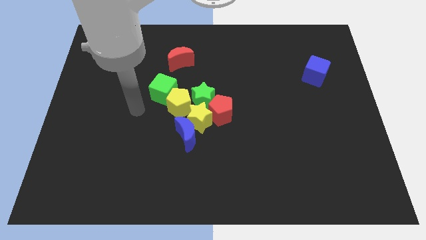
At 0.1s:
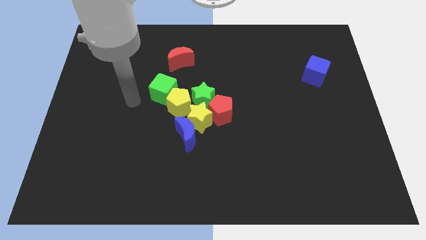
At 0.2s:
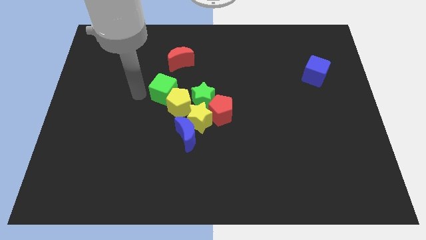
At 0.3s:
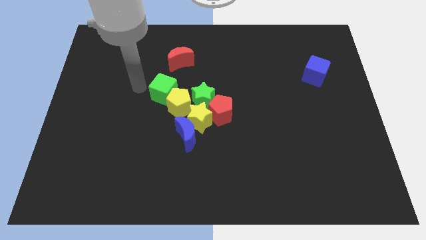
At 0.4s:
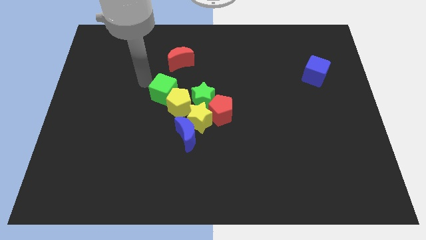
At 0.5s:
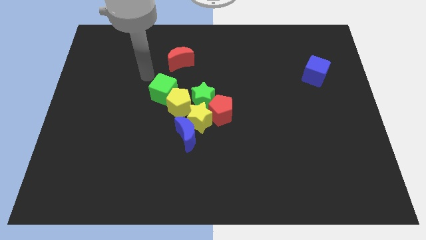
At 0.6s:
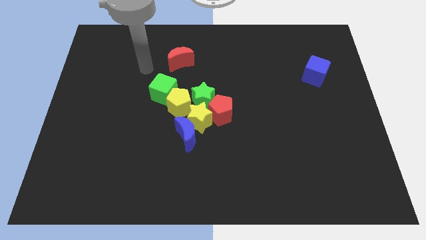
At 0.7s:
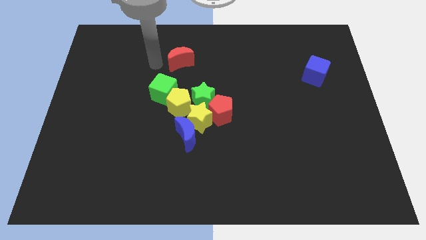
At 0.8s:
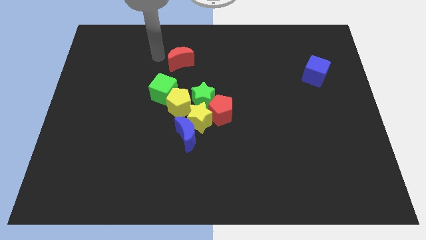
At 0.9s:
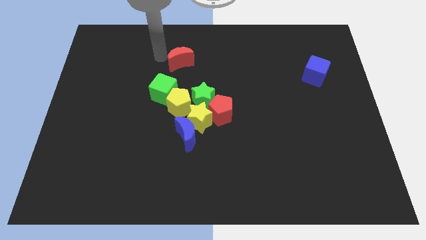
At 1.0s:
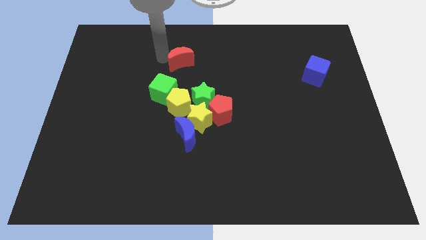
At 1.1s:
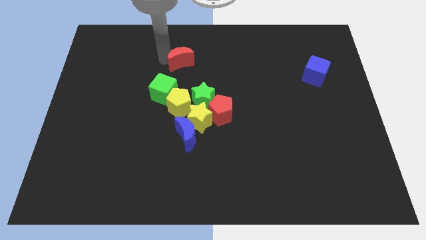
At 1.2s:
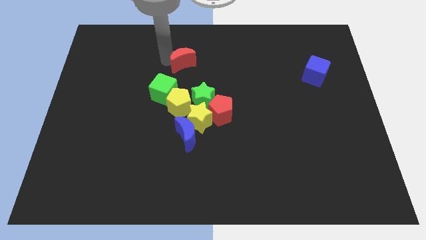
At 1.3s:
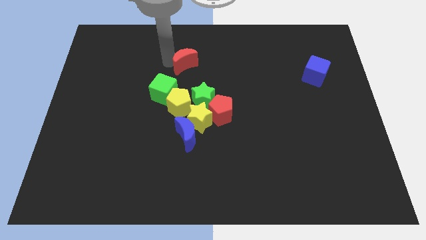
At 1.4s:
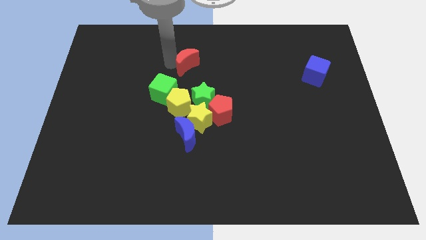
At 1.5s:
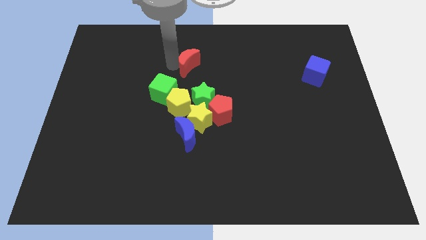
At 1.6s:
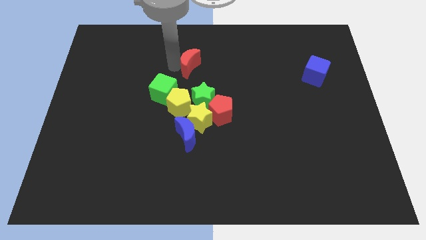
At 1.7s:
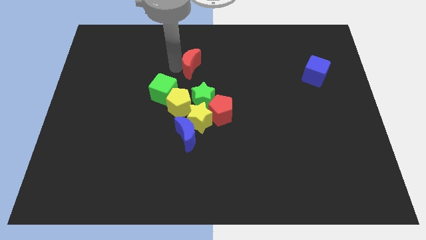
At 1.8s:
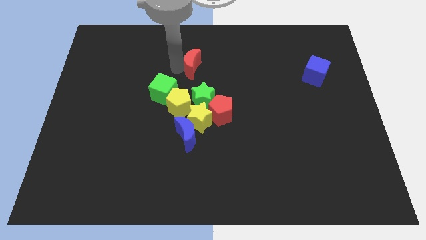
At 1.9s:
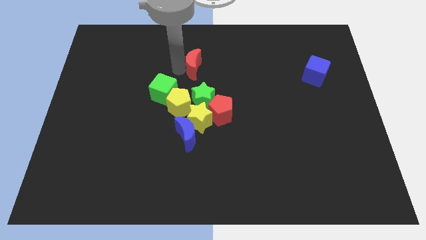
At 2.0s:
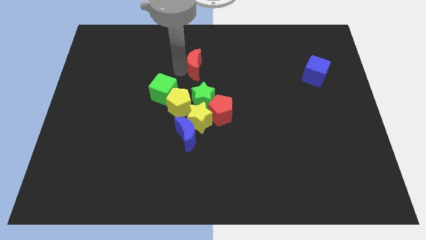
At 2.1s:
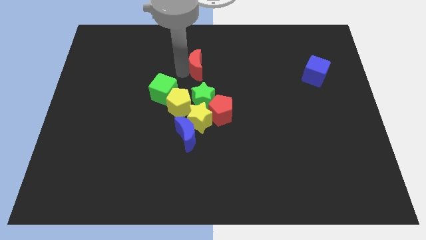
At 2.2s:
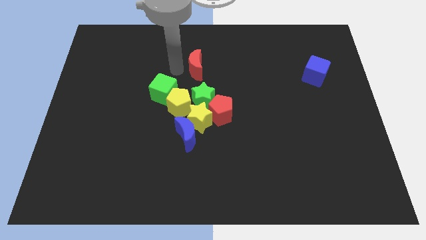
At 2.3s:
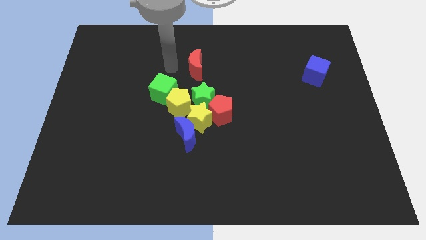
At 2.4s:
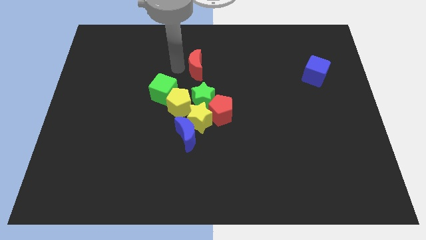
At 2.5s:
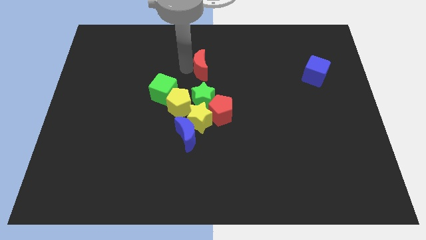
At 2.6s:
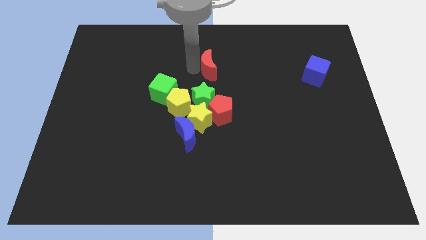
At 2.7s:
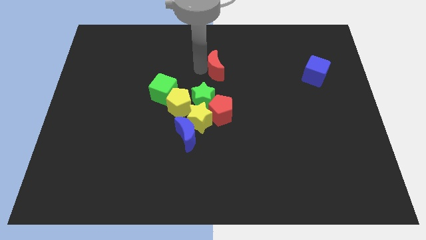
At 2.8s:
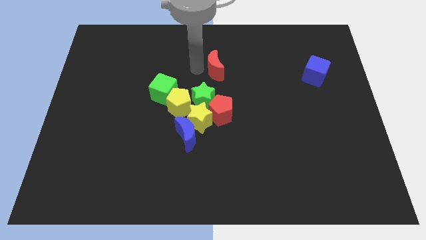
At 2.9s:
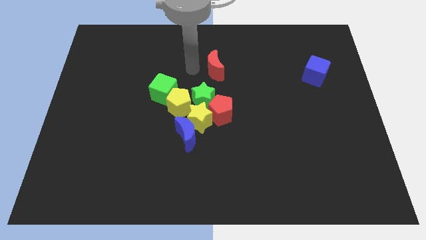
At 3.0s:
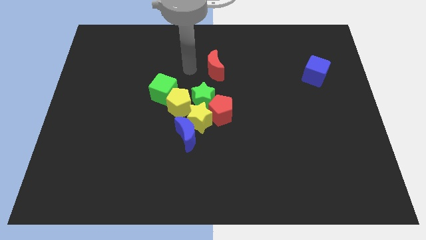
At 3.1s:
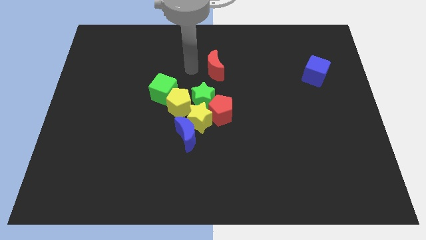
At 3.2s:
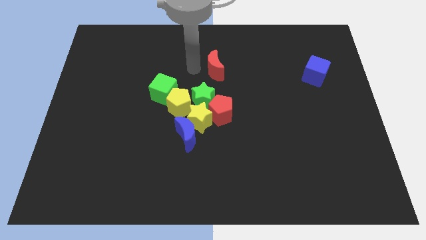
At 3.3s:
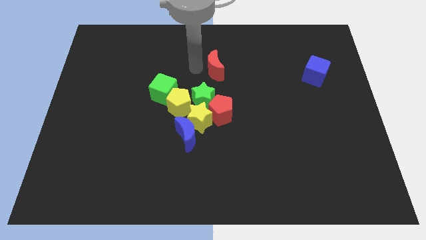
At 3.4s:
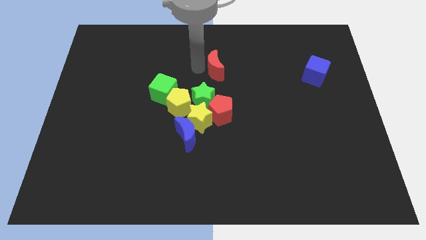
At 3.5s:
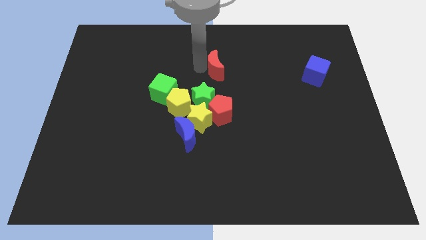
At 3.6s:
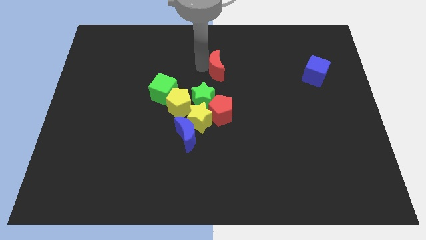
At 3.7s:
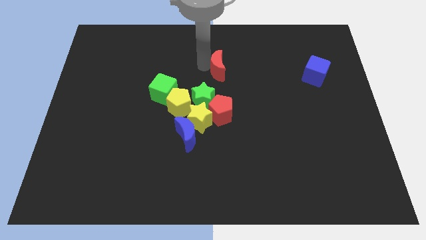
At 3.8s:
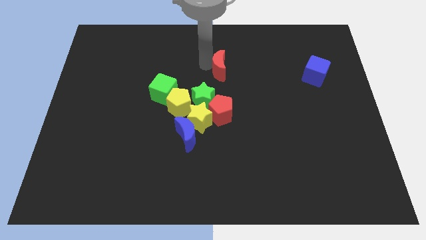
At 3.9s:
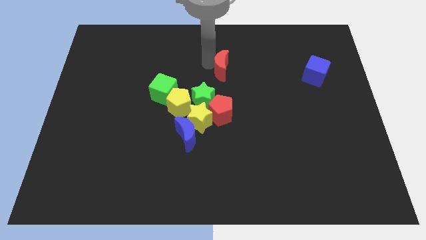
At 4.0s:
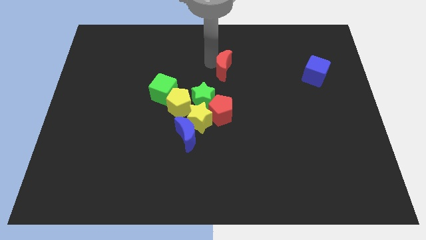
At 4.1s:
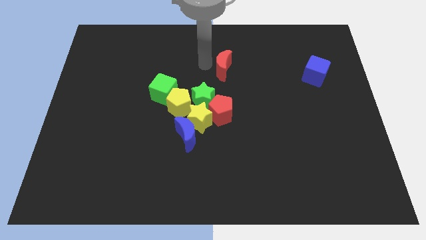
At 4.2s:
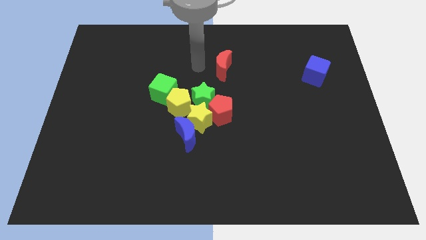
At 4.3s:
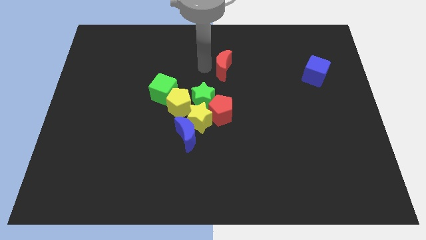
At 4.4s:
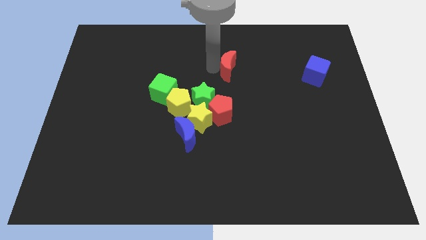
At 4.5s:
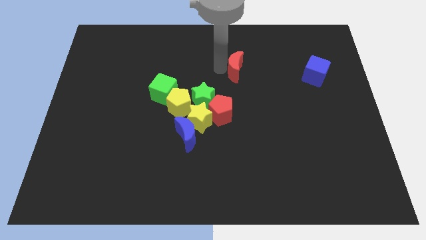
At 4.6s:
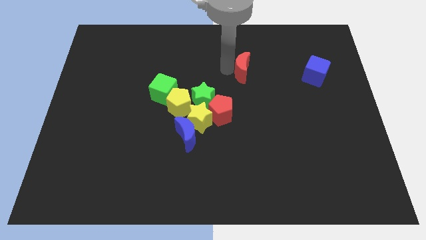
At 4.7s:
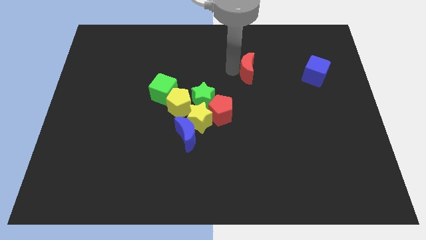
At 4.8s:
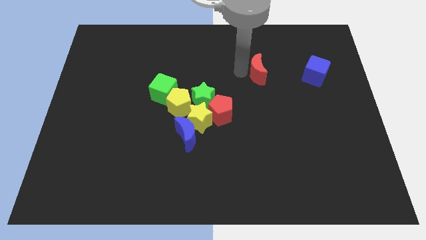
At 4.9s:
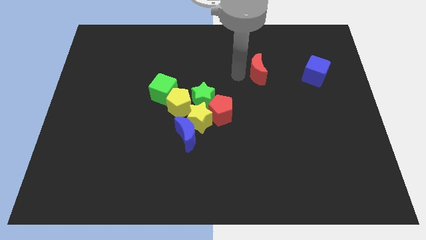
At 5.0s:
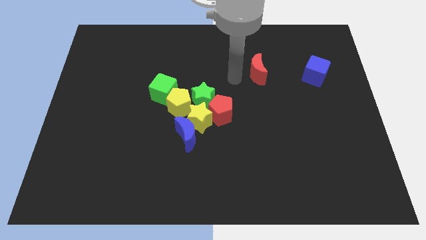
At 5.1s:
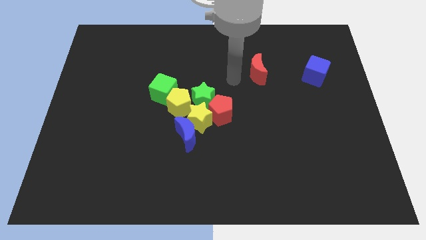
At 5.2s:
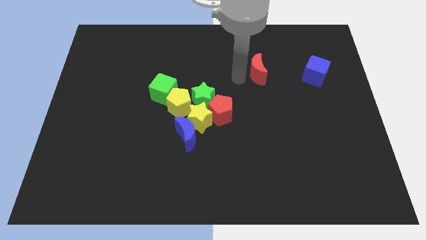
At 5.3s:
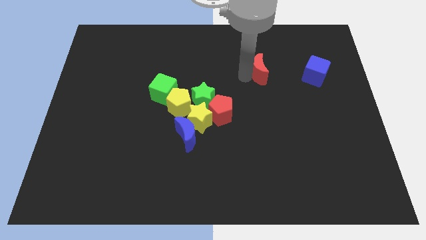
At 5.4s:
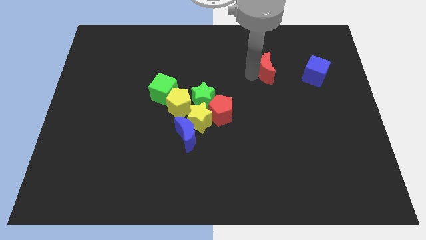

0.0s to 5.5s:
push the red moon to the right

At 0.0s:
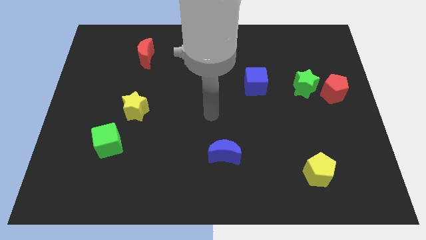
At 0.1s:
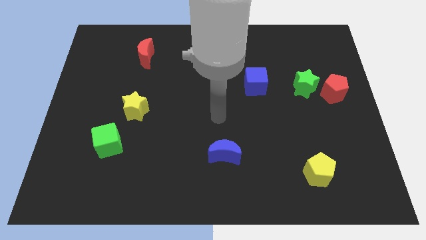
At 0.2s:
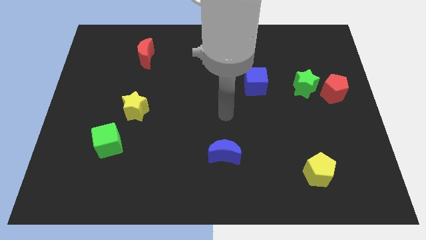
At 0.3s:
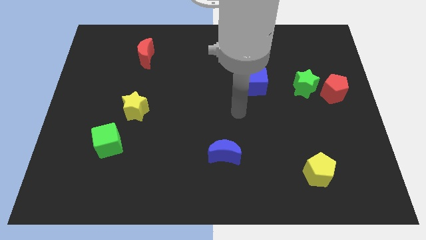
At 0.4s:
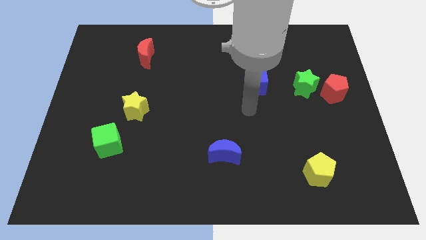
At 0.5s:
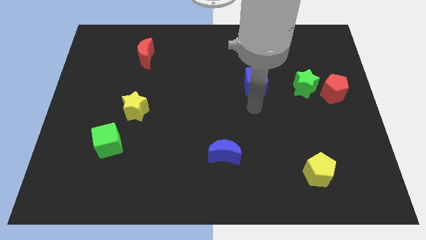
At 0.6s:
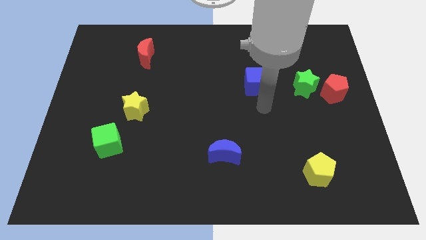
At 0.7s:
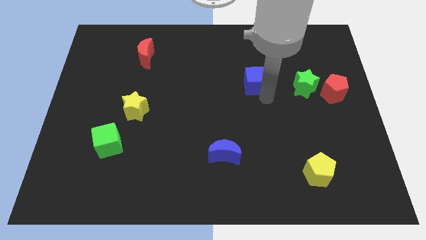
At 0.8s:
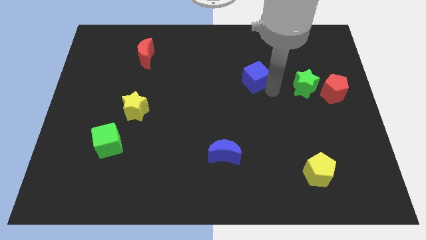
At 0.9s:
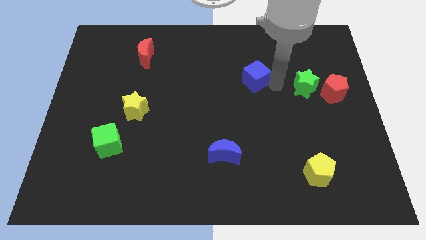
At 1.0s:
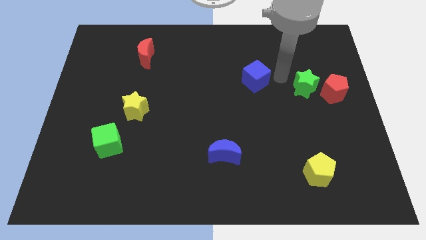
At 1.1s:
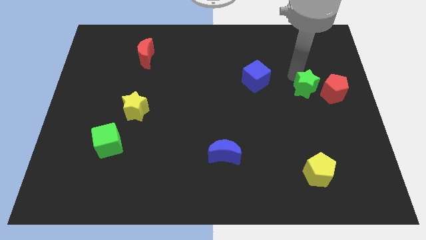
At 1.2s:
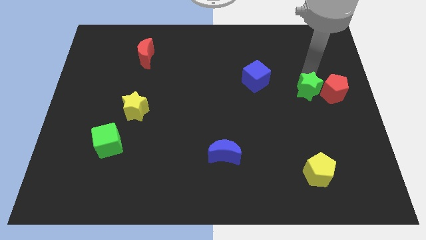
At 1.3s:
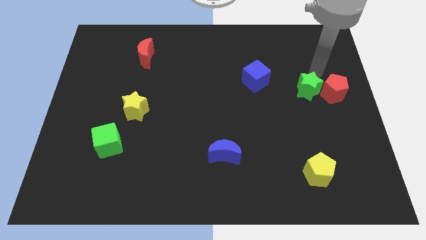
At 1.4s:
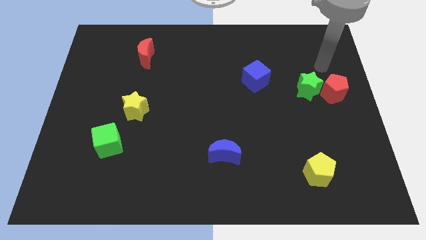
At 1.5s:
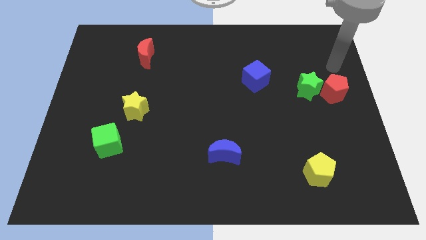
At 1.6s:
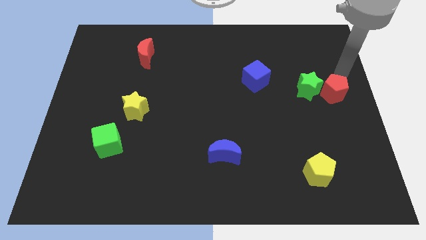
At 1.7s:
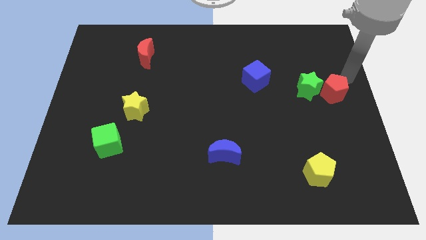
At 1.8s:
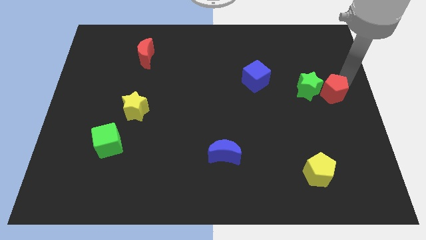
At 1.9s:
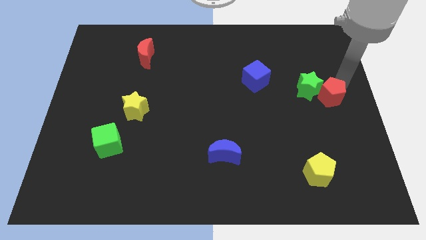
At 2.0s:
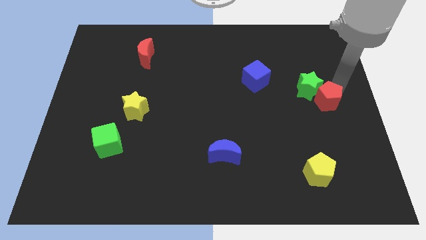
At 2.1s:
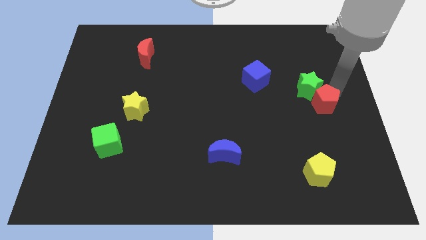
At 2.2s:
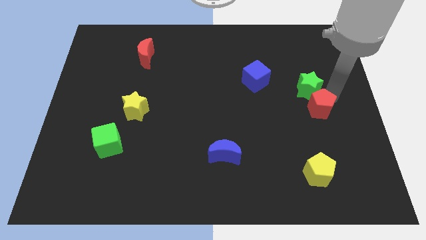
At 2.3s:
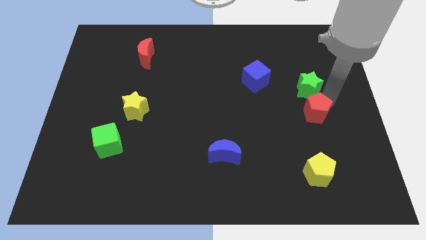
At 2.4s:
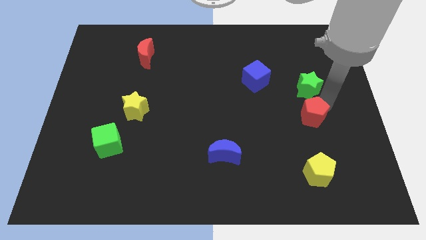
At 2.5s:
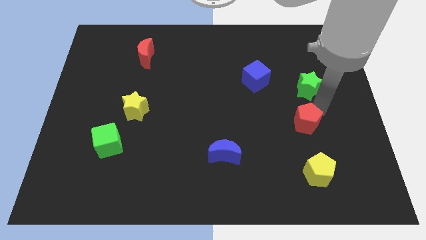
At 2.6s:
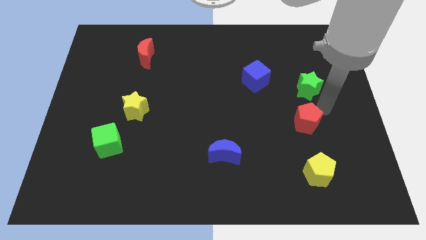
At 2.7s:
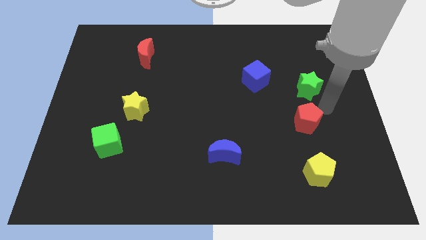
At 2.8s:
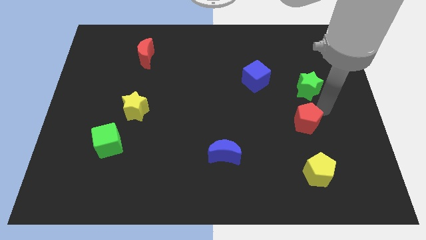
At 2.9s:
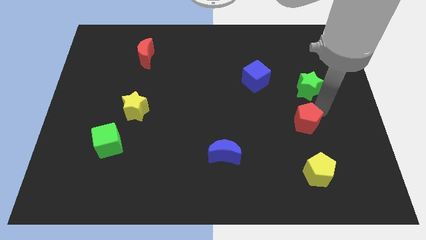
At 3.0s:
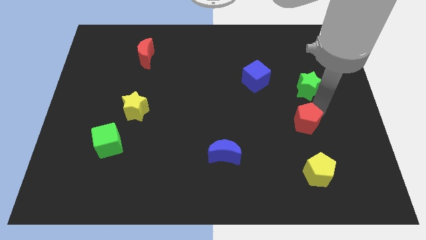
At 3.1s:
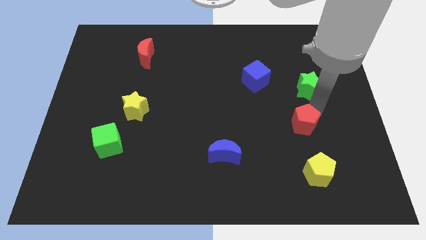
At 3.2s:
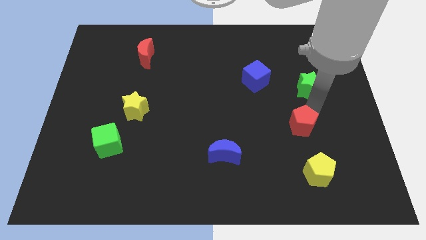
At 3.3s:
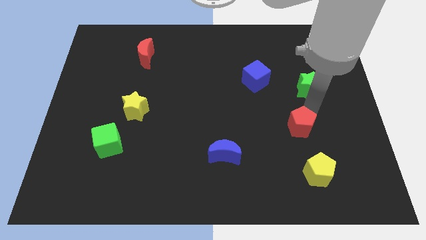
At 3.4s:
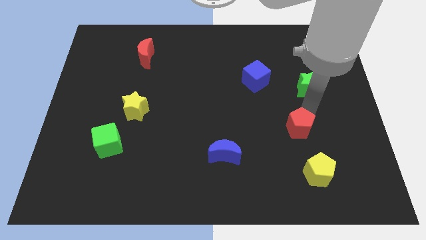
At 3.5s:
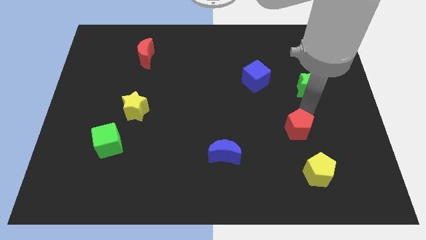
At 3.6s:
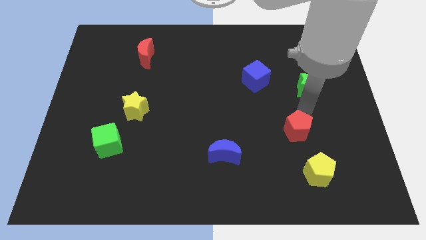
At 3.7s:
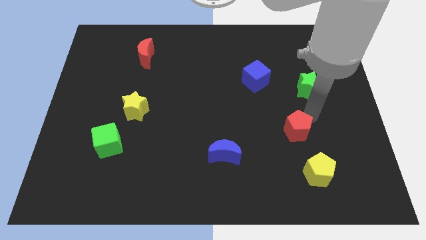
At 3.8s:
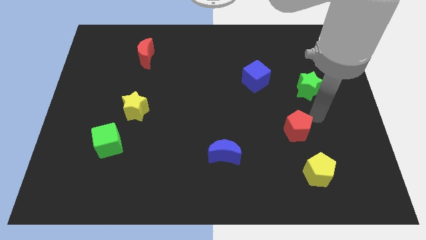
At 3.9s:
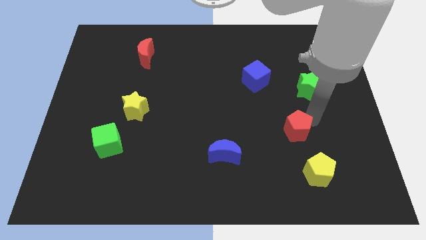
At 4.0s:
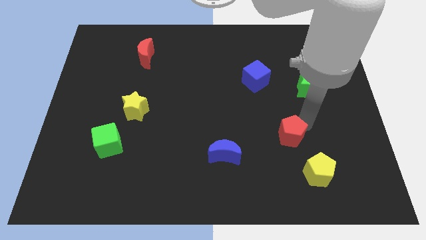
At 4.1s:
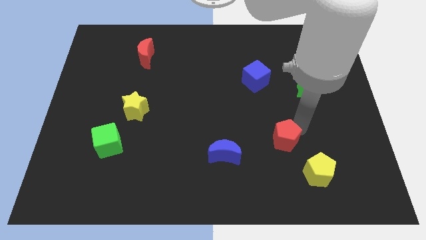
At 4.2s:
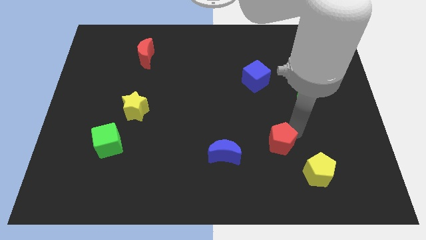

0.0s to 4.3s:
slide the red pentagon downwards and to the left
